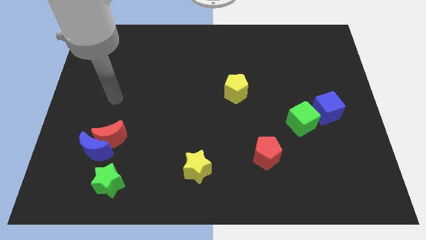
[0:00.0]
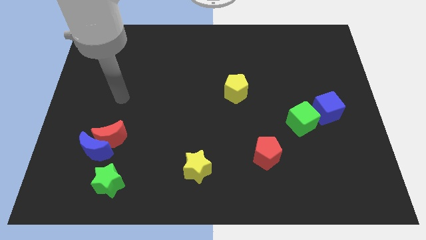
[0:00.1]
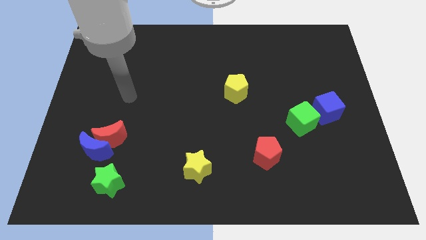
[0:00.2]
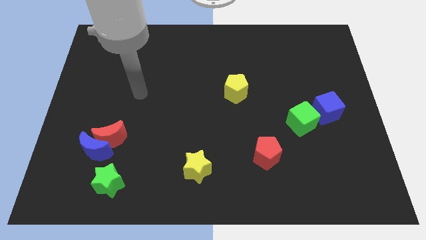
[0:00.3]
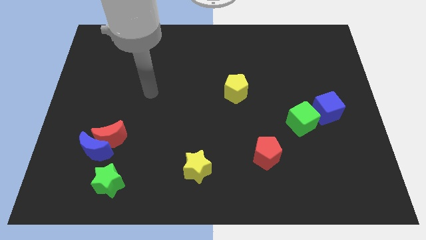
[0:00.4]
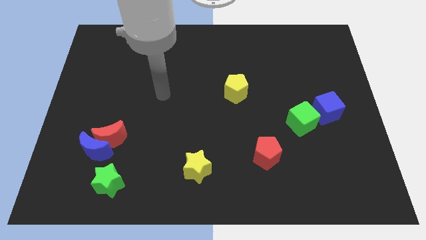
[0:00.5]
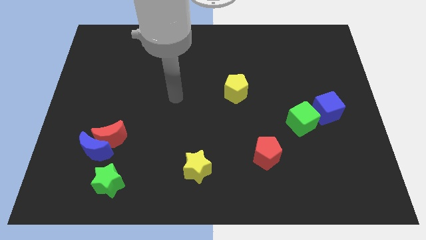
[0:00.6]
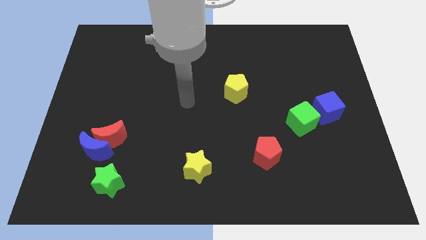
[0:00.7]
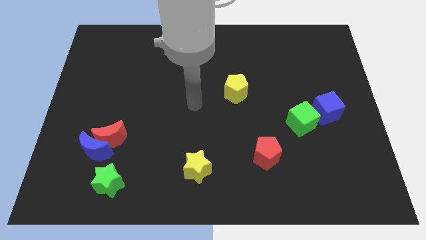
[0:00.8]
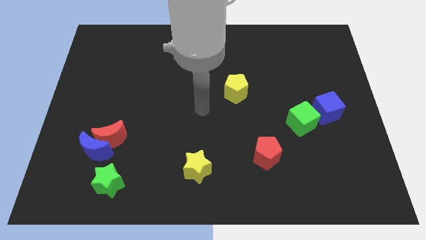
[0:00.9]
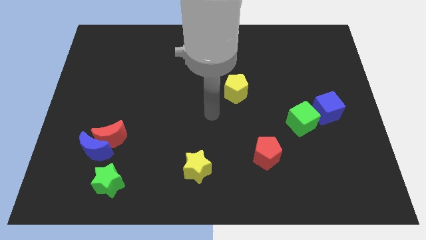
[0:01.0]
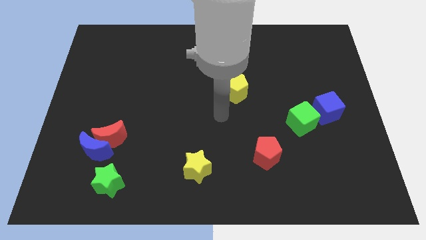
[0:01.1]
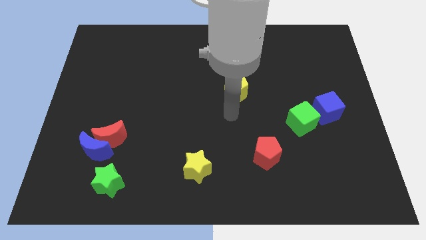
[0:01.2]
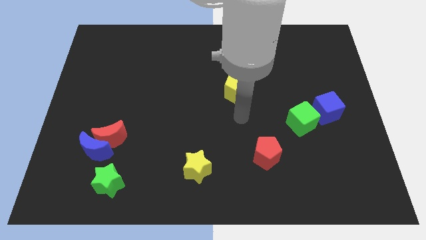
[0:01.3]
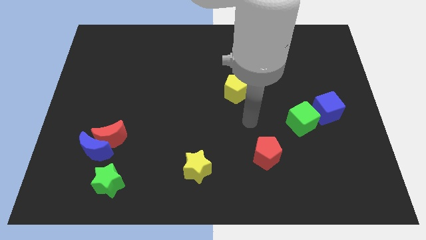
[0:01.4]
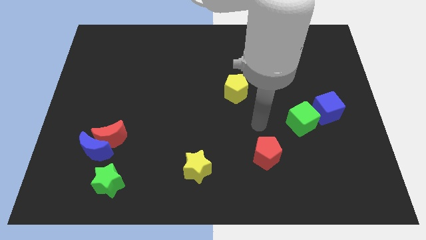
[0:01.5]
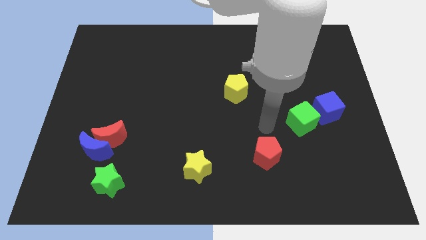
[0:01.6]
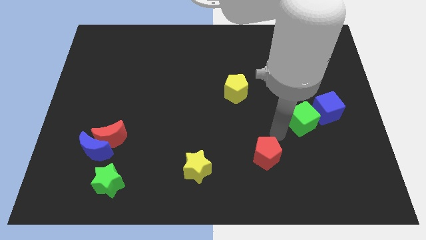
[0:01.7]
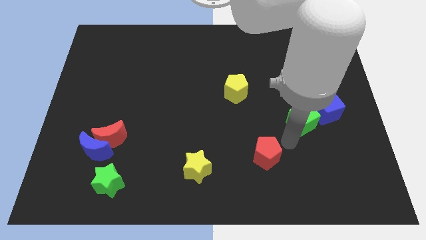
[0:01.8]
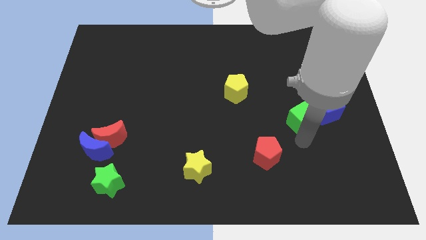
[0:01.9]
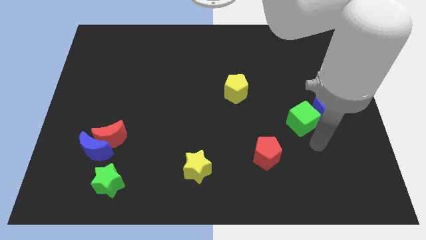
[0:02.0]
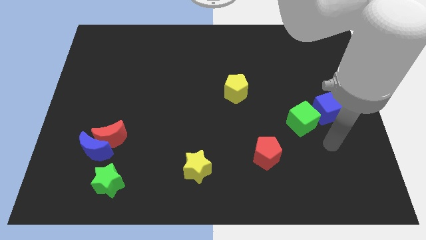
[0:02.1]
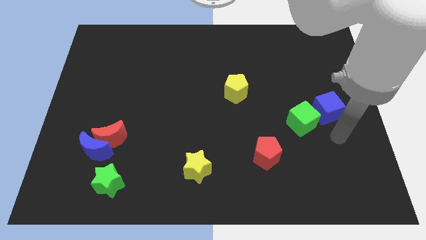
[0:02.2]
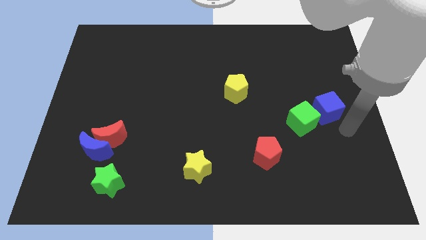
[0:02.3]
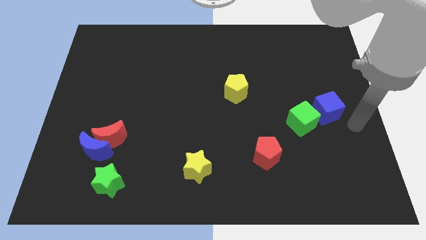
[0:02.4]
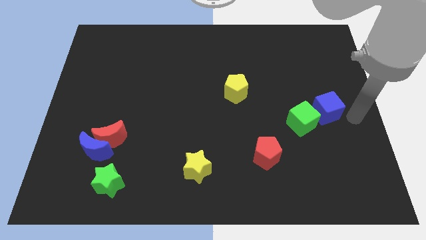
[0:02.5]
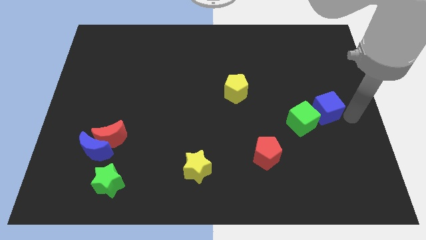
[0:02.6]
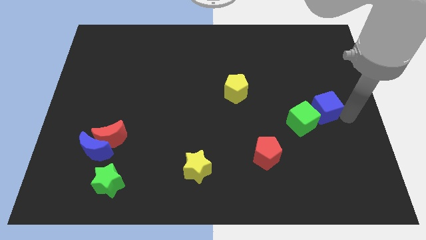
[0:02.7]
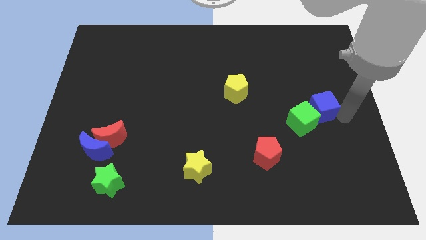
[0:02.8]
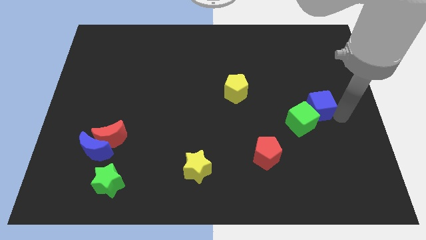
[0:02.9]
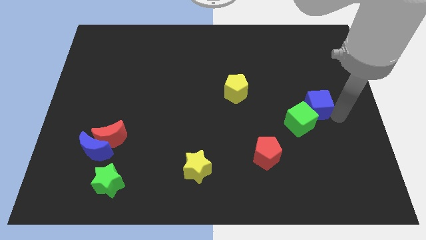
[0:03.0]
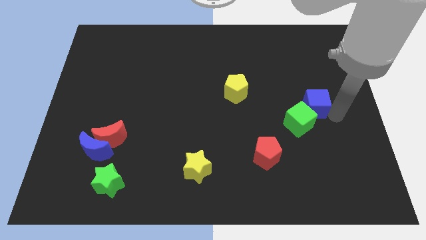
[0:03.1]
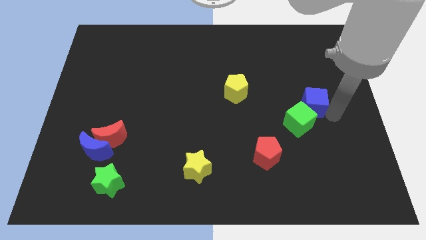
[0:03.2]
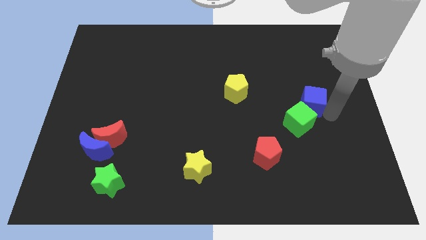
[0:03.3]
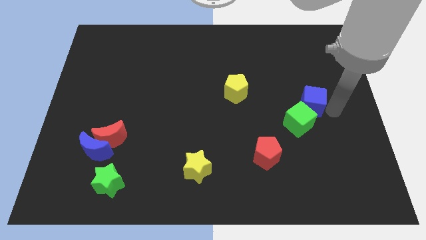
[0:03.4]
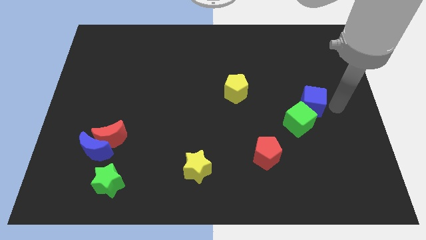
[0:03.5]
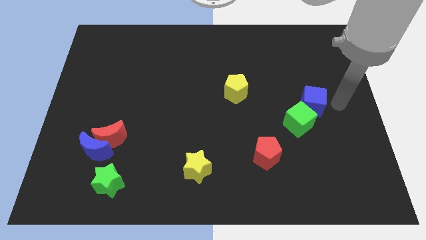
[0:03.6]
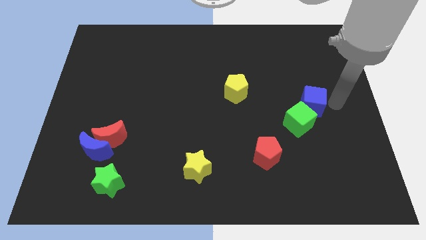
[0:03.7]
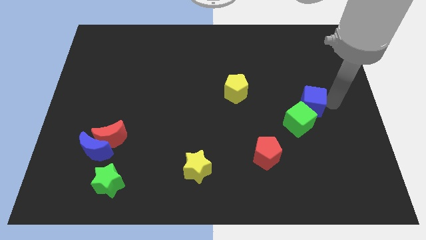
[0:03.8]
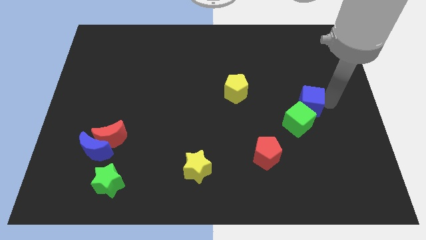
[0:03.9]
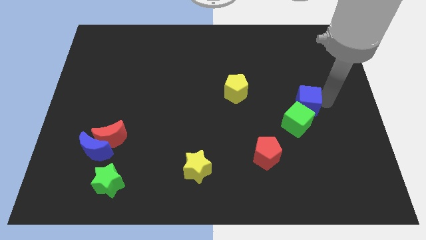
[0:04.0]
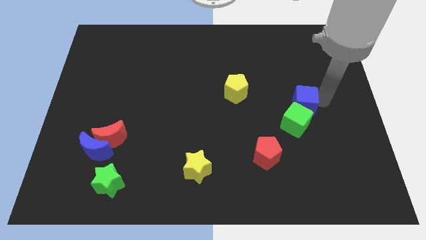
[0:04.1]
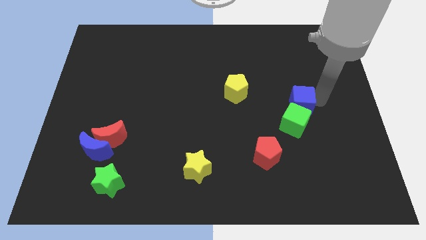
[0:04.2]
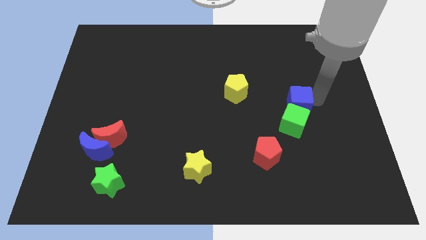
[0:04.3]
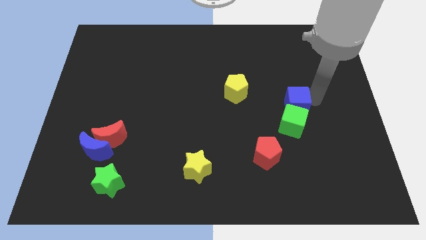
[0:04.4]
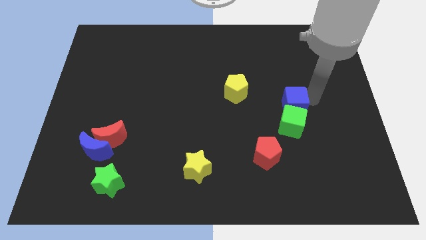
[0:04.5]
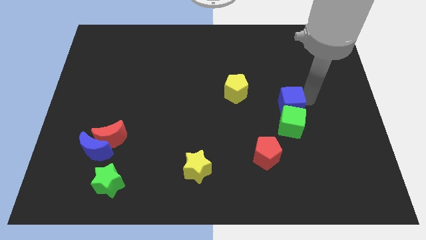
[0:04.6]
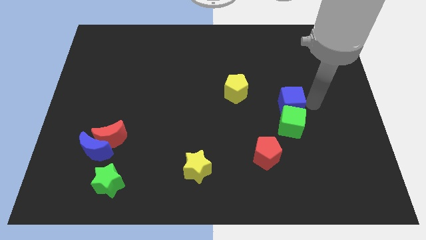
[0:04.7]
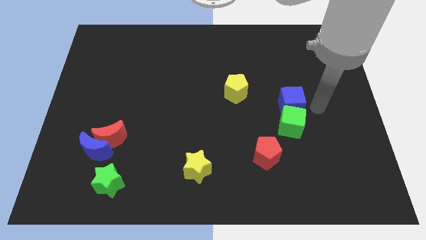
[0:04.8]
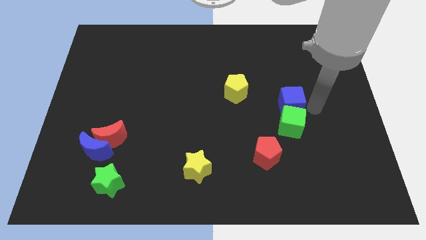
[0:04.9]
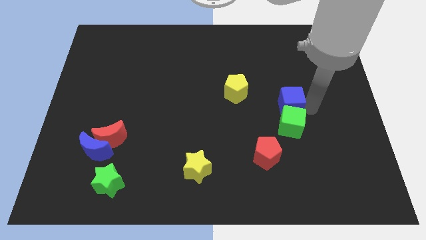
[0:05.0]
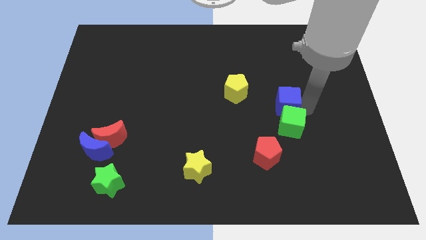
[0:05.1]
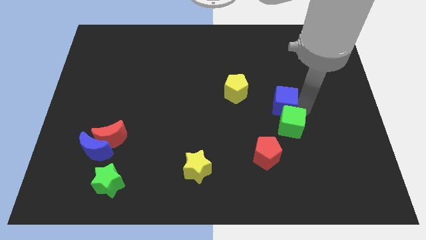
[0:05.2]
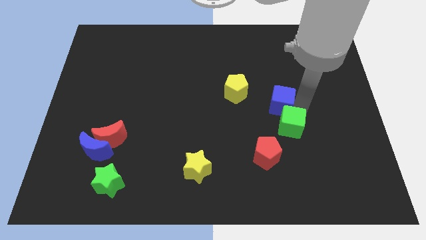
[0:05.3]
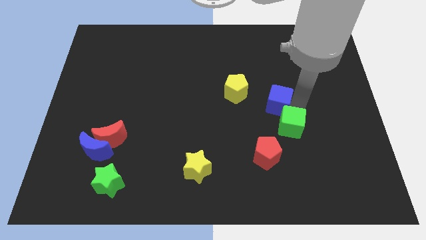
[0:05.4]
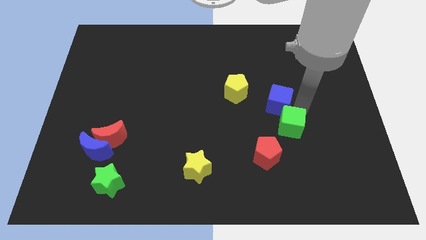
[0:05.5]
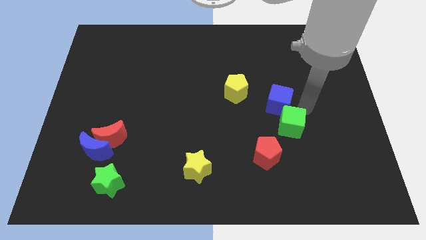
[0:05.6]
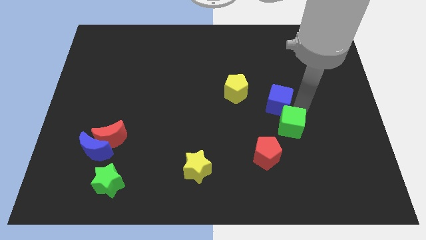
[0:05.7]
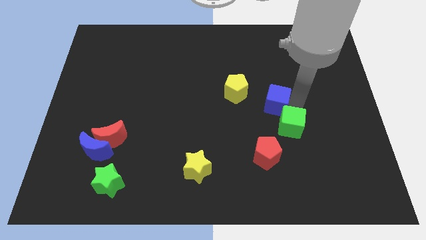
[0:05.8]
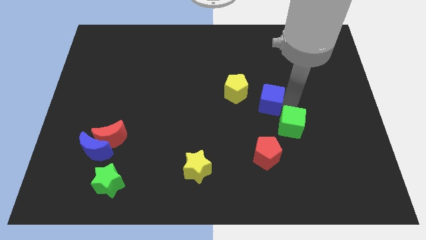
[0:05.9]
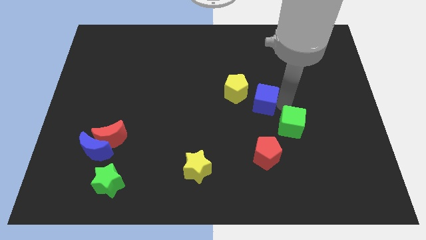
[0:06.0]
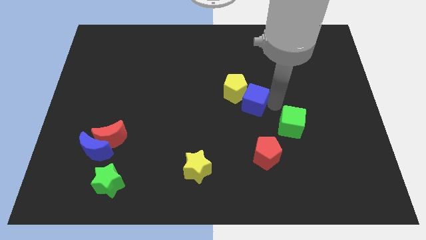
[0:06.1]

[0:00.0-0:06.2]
put the blue cube next to the yellow pentagon
